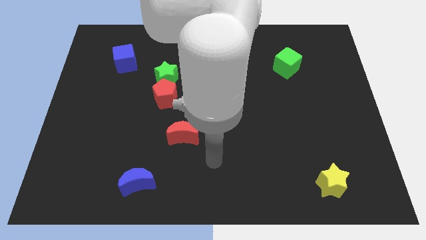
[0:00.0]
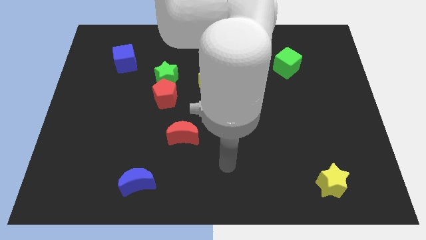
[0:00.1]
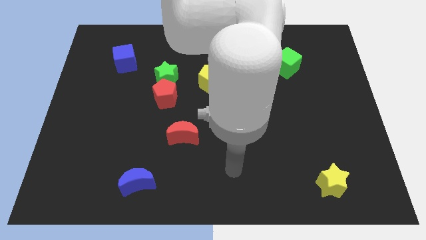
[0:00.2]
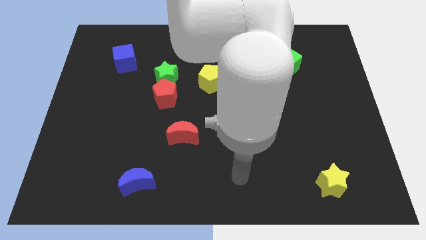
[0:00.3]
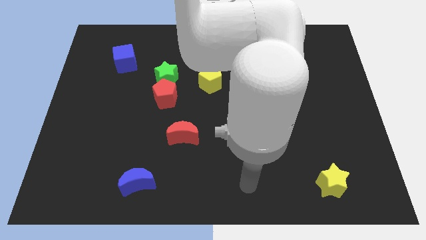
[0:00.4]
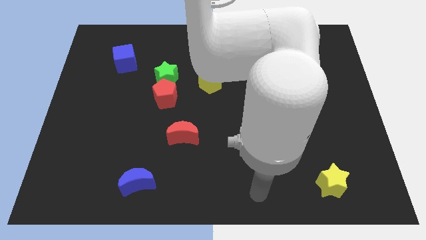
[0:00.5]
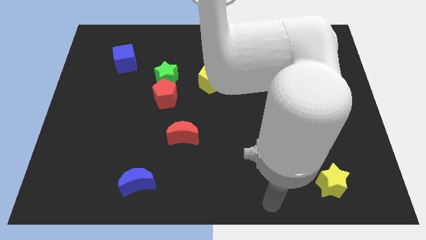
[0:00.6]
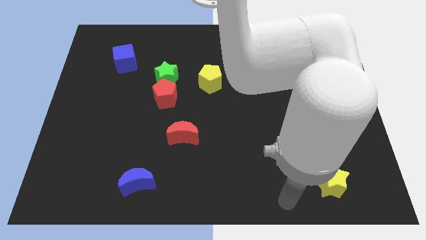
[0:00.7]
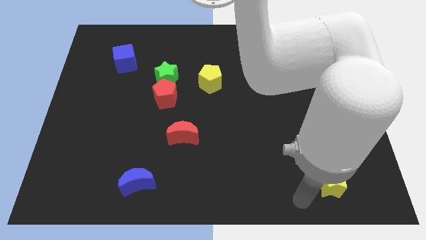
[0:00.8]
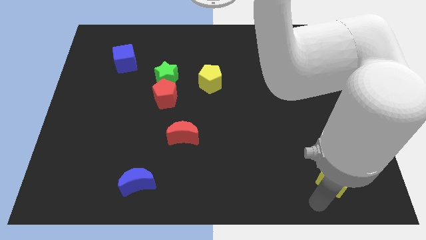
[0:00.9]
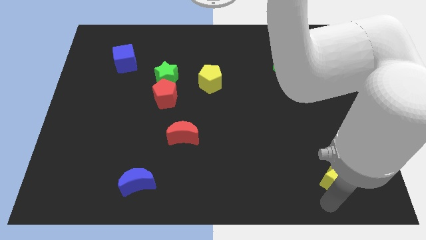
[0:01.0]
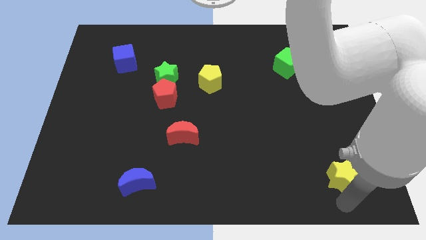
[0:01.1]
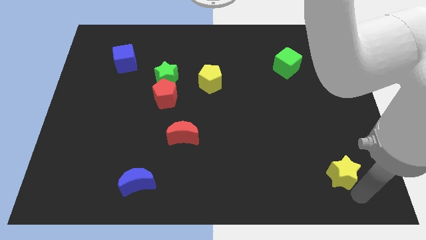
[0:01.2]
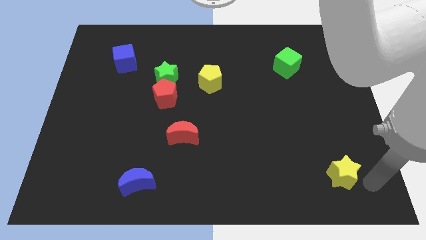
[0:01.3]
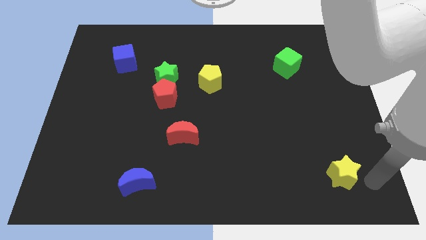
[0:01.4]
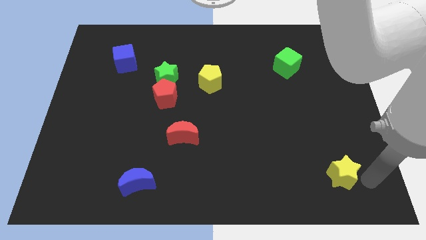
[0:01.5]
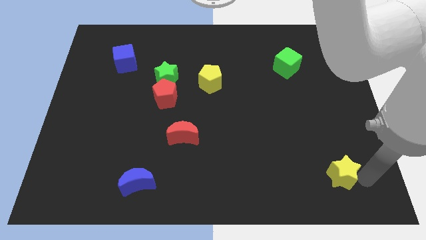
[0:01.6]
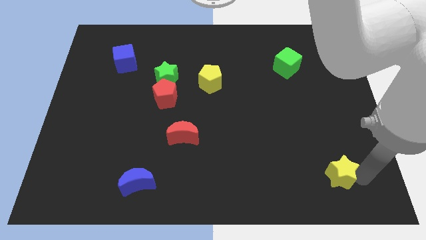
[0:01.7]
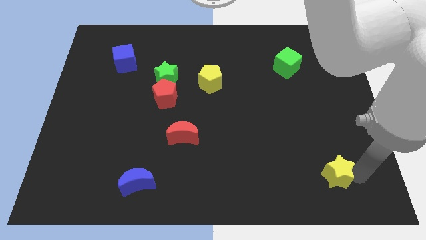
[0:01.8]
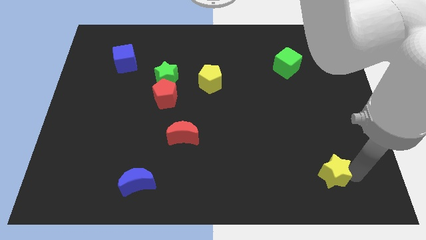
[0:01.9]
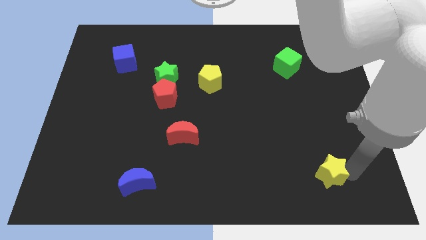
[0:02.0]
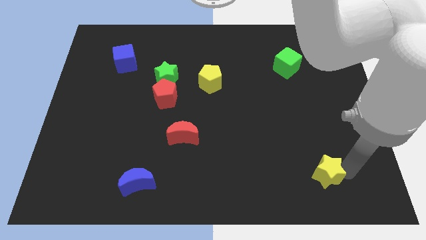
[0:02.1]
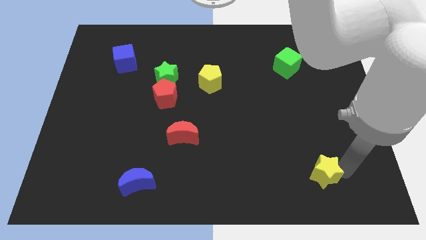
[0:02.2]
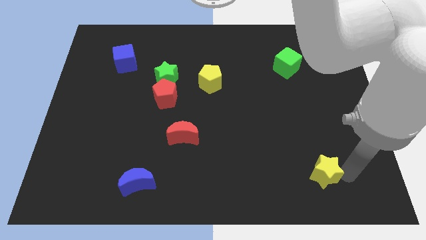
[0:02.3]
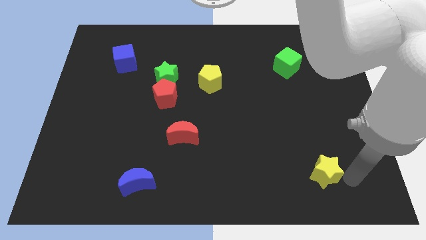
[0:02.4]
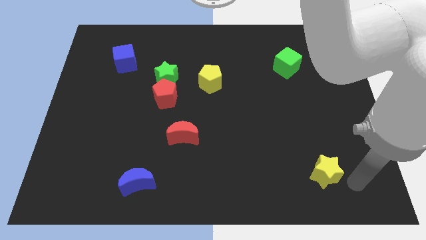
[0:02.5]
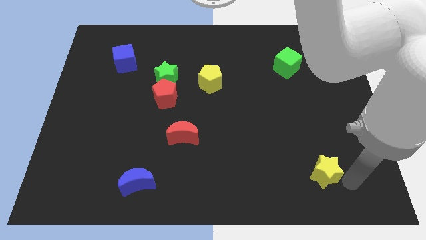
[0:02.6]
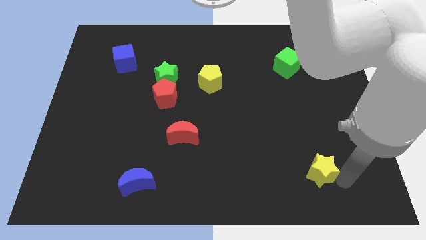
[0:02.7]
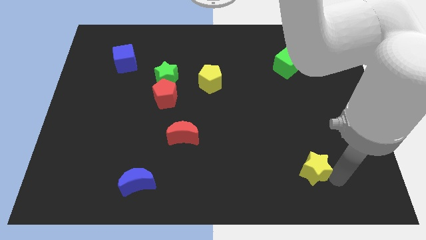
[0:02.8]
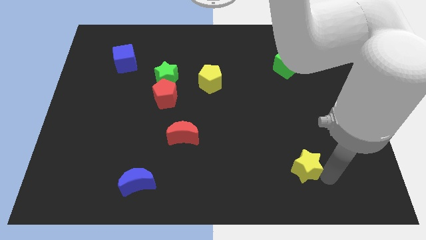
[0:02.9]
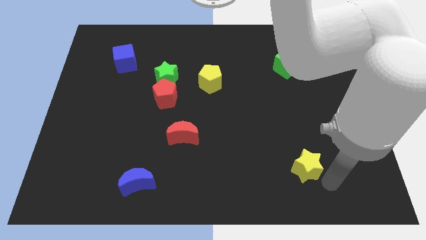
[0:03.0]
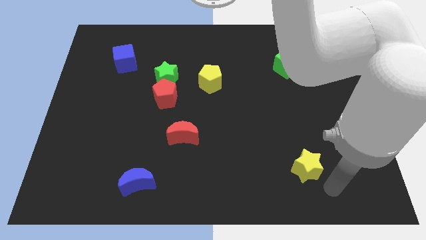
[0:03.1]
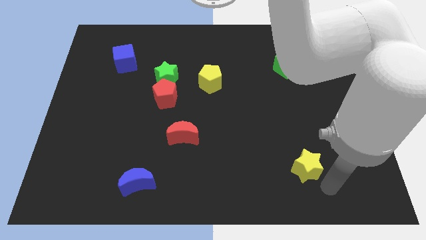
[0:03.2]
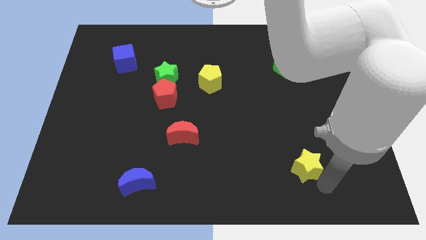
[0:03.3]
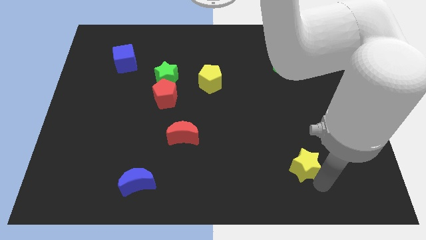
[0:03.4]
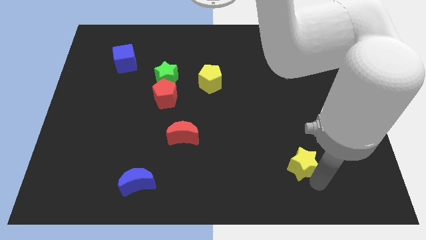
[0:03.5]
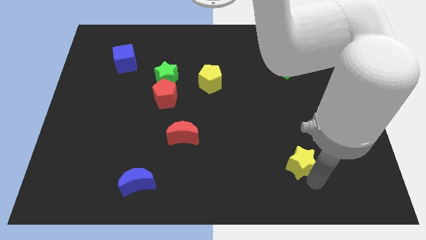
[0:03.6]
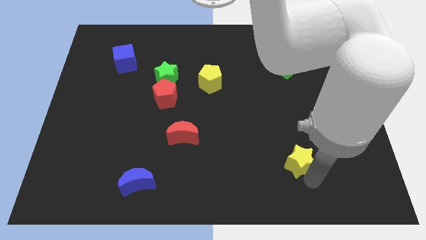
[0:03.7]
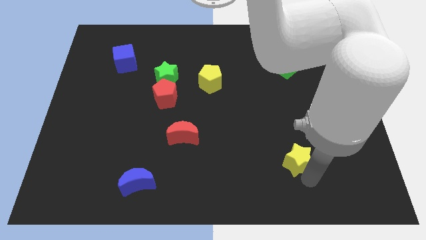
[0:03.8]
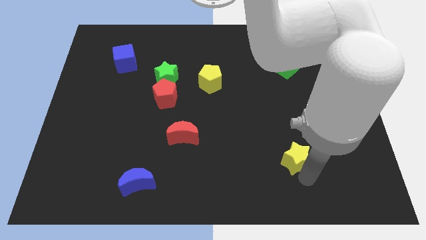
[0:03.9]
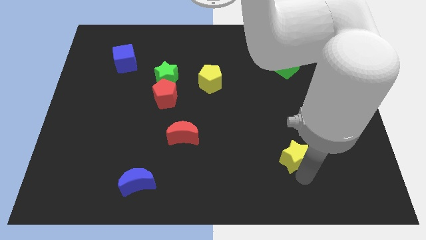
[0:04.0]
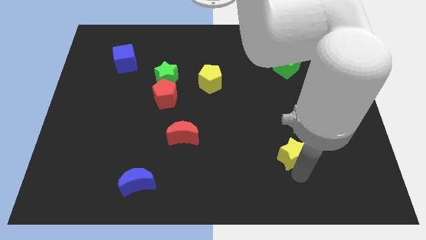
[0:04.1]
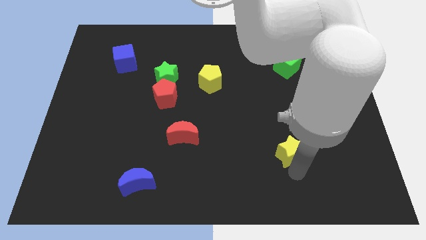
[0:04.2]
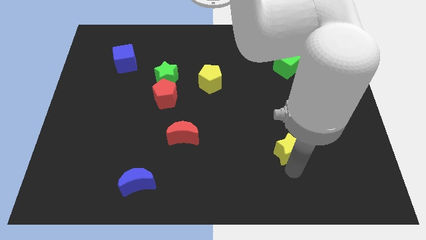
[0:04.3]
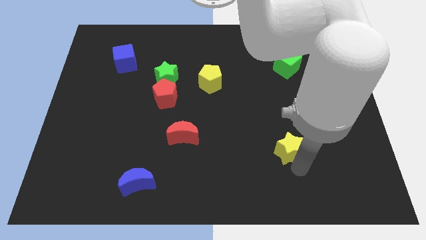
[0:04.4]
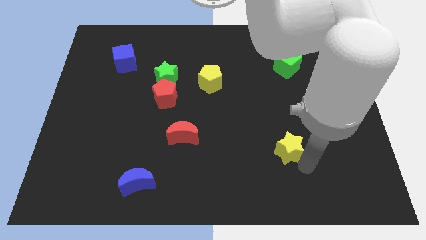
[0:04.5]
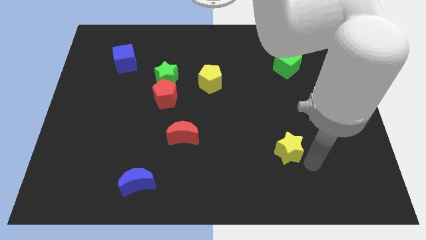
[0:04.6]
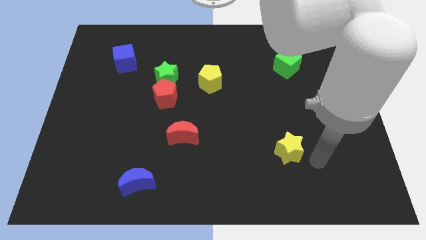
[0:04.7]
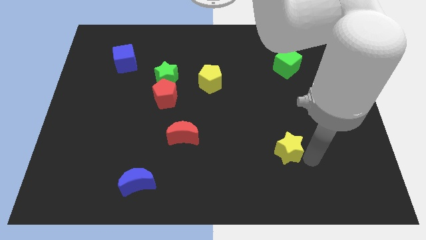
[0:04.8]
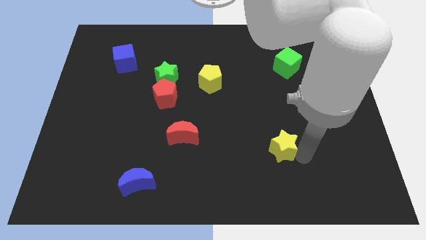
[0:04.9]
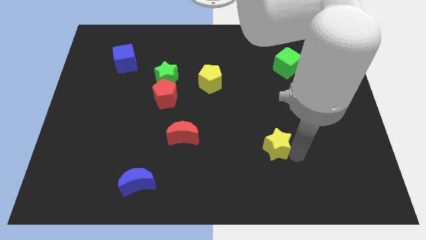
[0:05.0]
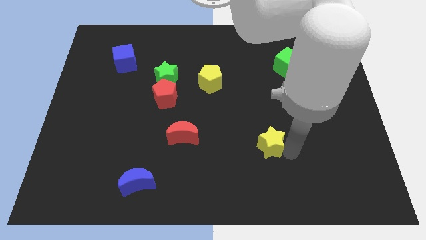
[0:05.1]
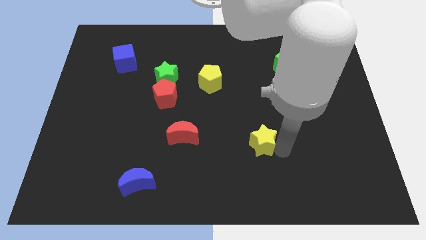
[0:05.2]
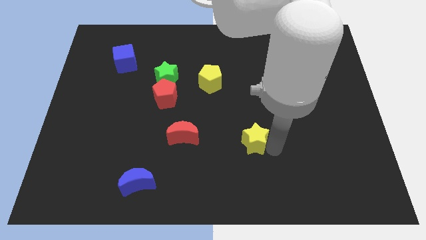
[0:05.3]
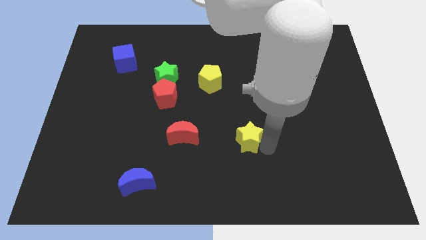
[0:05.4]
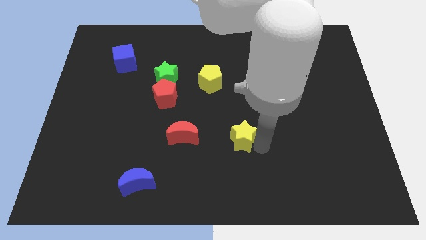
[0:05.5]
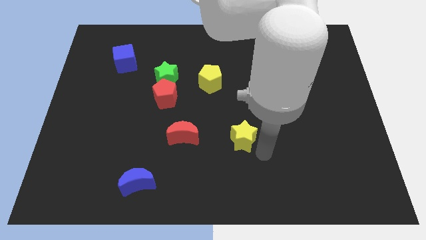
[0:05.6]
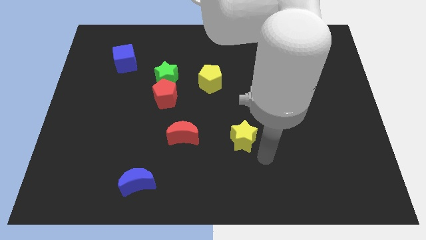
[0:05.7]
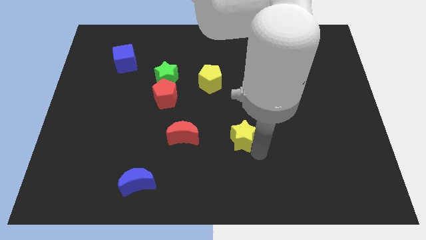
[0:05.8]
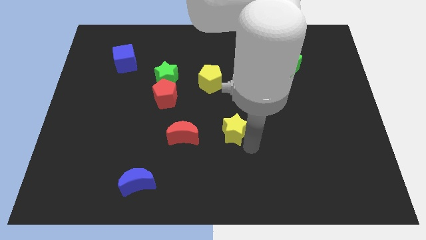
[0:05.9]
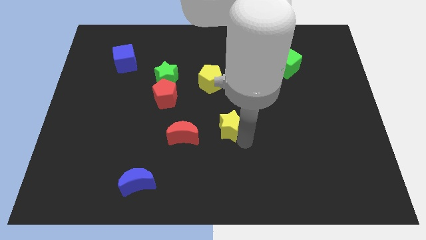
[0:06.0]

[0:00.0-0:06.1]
slide the yellow star to the bottom of the yellow pentagon

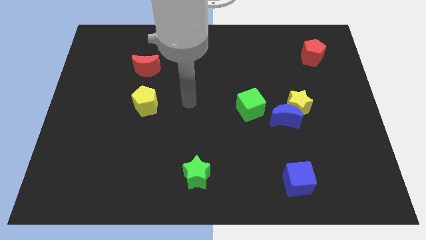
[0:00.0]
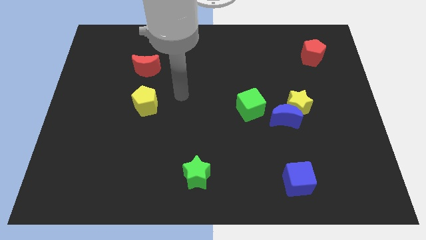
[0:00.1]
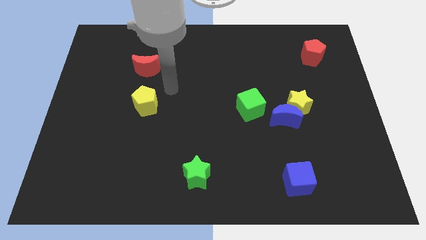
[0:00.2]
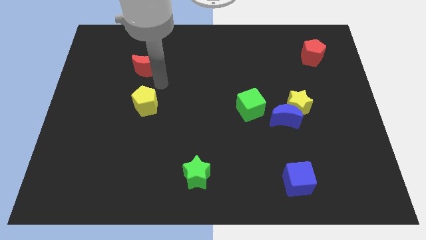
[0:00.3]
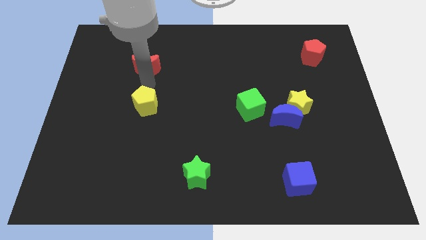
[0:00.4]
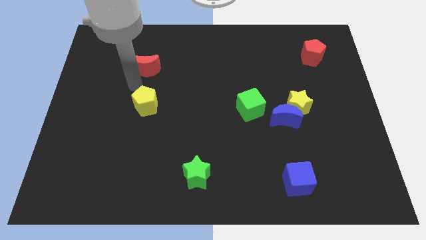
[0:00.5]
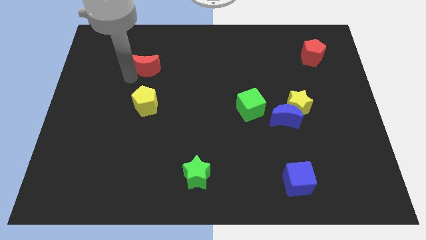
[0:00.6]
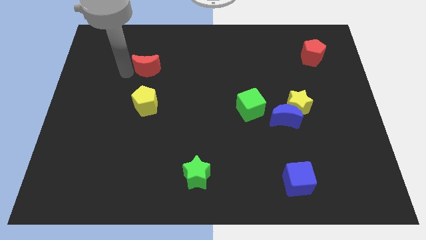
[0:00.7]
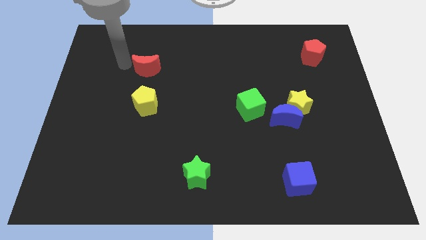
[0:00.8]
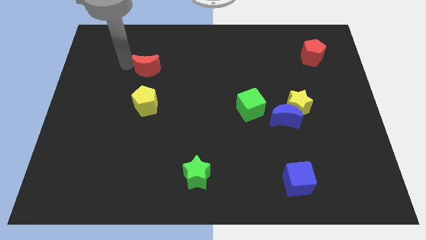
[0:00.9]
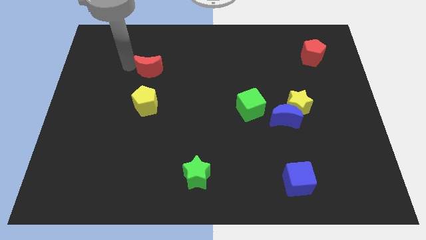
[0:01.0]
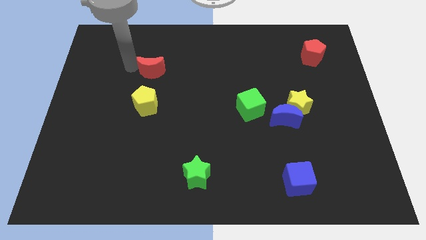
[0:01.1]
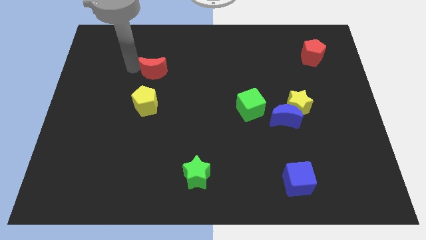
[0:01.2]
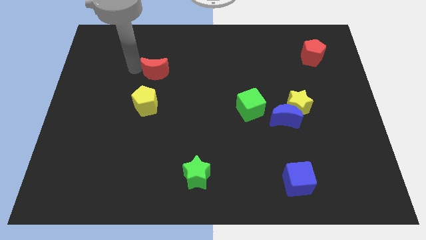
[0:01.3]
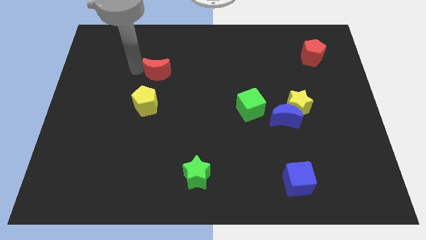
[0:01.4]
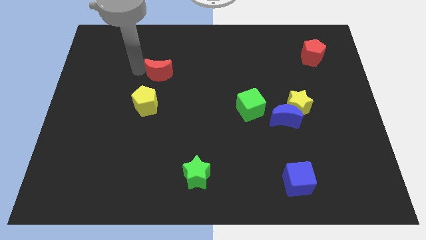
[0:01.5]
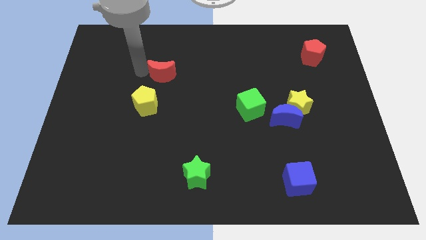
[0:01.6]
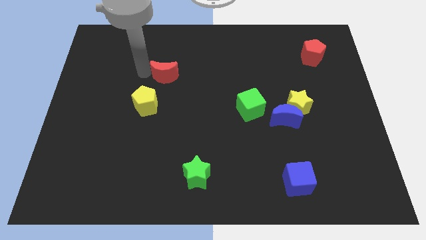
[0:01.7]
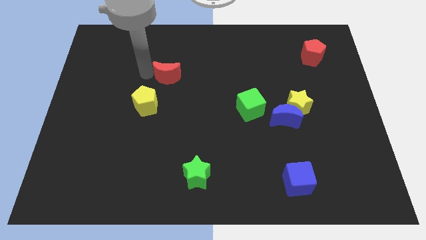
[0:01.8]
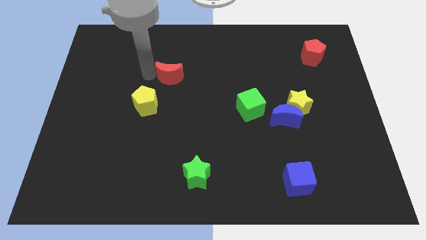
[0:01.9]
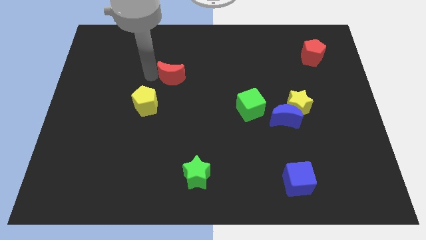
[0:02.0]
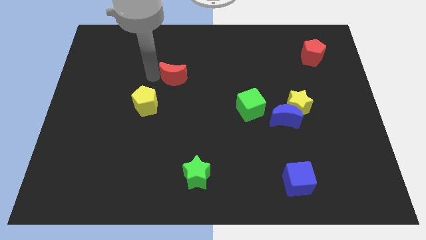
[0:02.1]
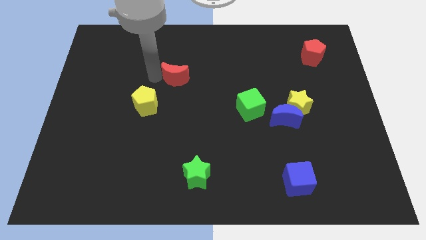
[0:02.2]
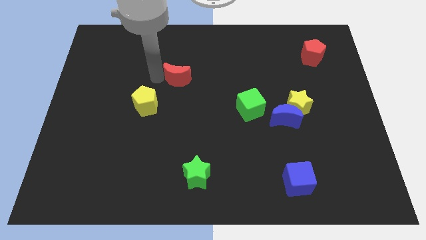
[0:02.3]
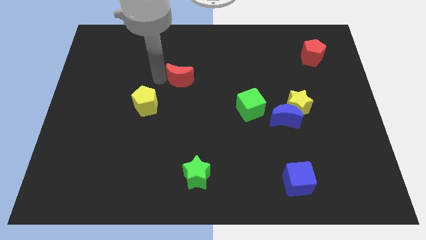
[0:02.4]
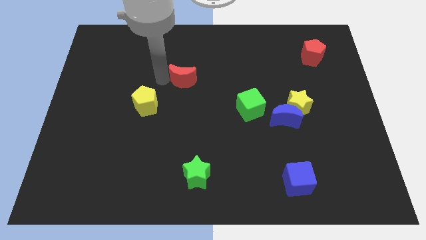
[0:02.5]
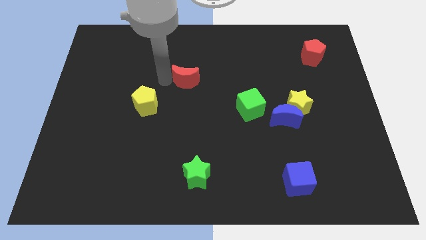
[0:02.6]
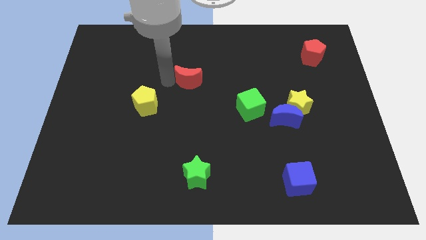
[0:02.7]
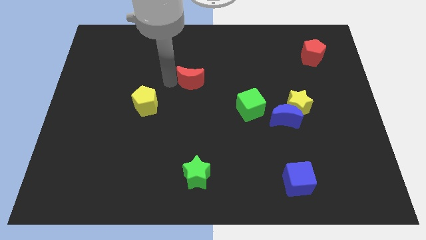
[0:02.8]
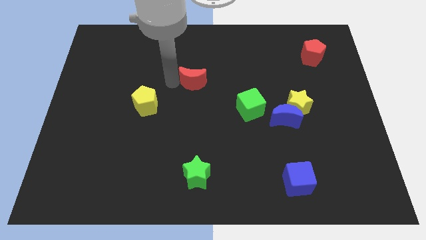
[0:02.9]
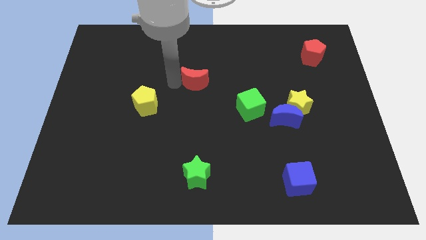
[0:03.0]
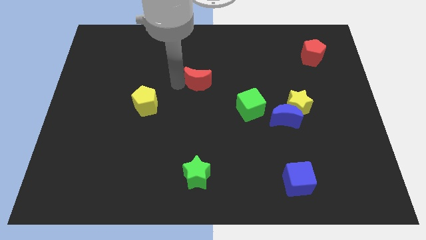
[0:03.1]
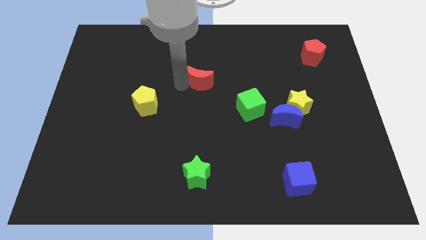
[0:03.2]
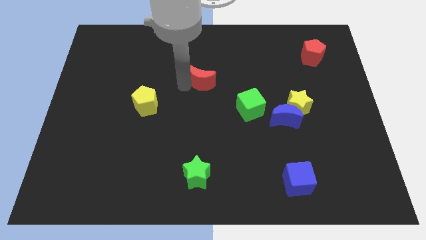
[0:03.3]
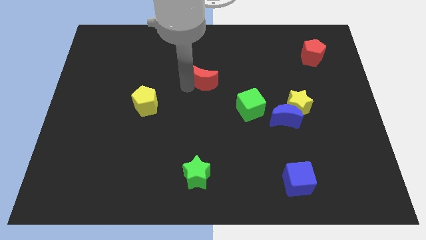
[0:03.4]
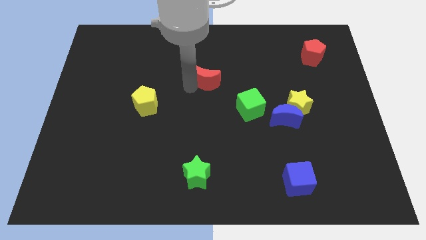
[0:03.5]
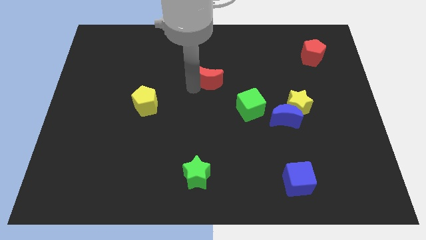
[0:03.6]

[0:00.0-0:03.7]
put the red moon to the top left side of the green cube
